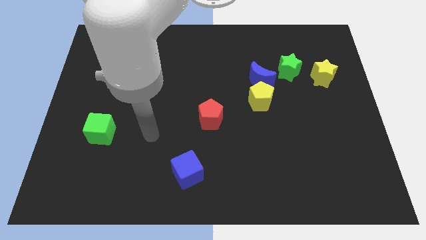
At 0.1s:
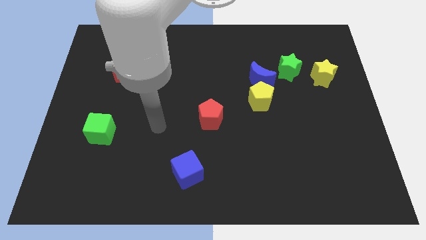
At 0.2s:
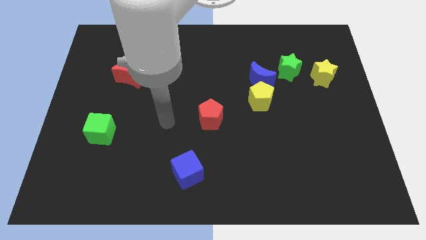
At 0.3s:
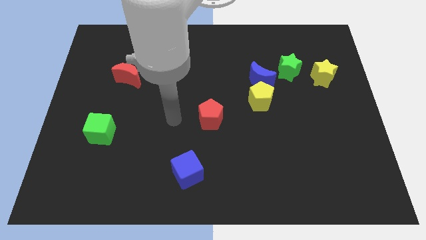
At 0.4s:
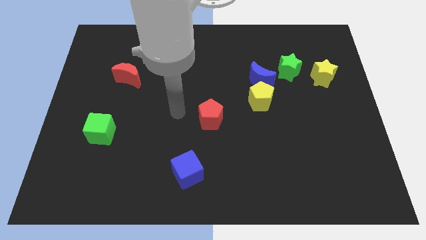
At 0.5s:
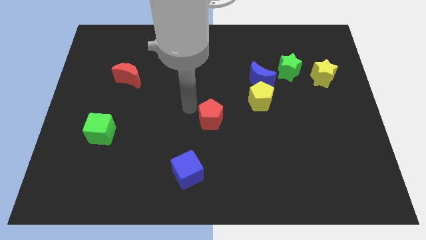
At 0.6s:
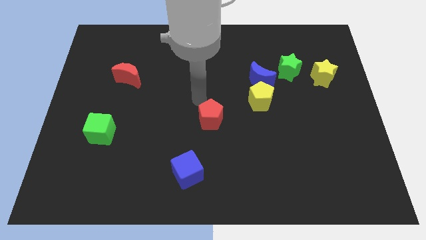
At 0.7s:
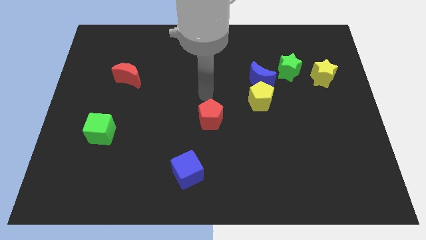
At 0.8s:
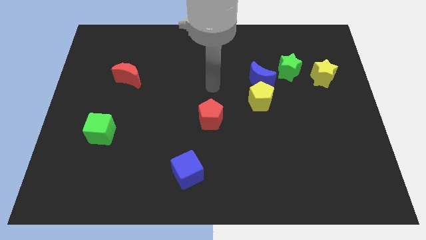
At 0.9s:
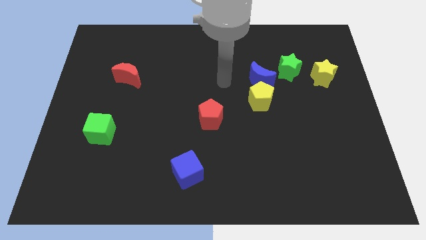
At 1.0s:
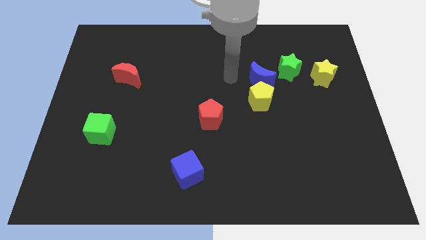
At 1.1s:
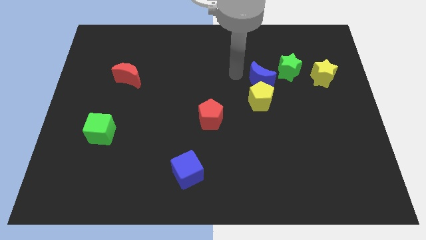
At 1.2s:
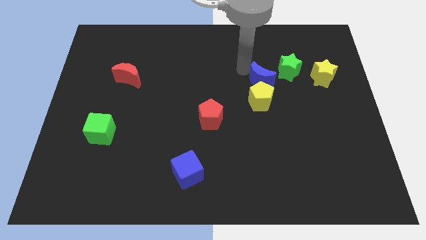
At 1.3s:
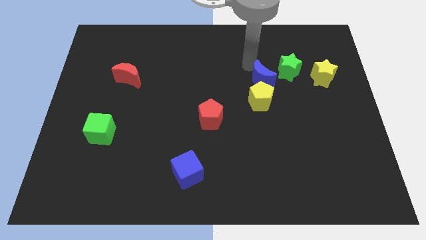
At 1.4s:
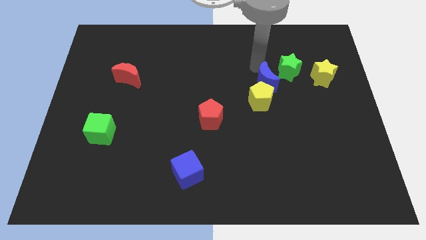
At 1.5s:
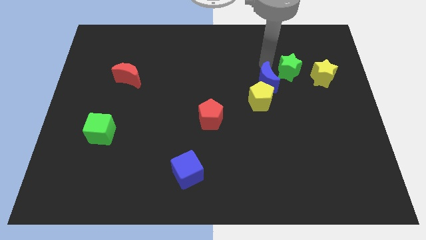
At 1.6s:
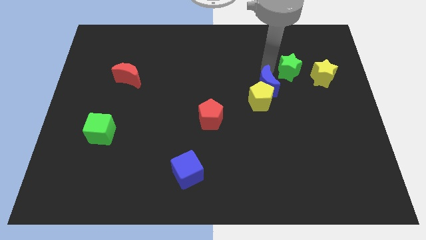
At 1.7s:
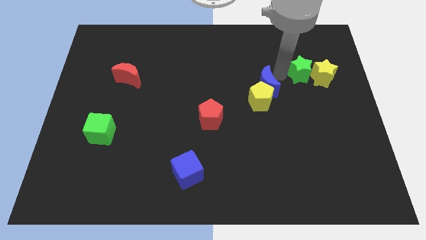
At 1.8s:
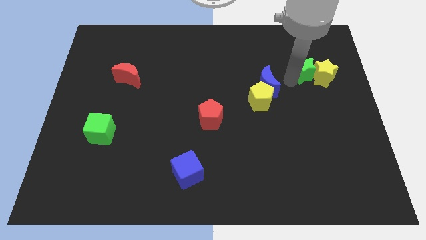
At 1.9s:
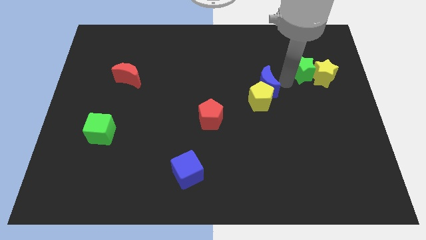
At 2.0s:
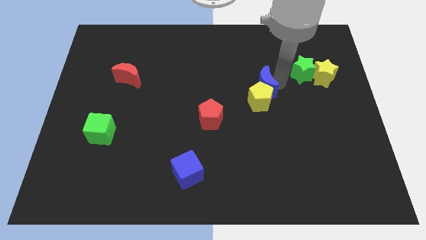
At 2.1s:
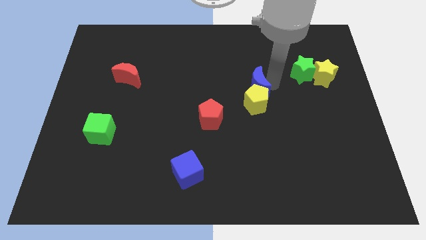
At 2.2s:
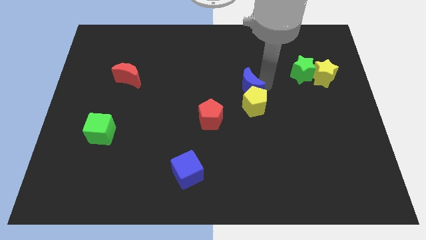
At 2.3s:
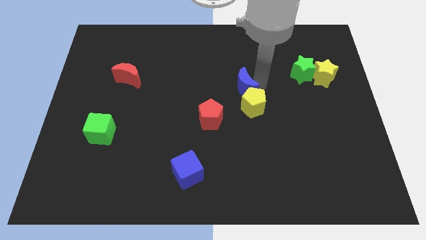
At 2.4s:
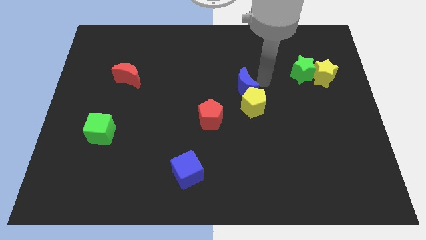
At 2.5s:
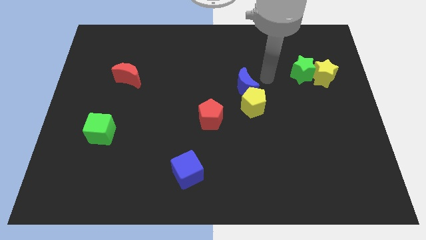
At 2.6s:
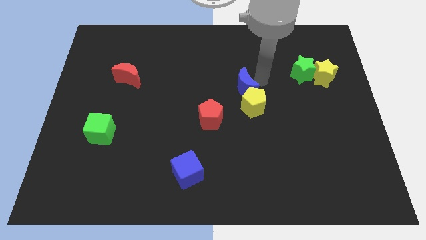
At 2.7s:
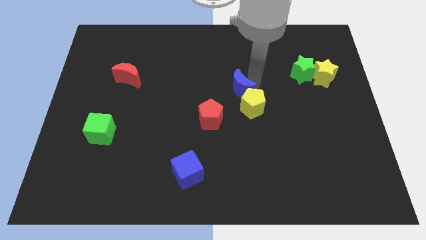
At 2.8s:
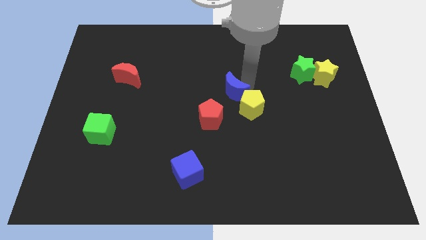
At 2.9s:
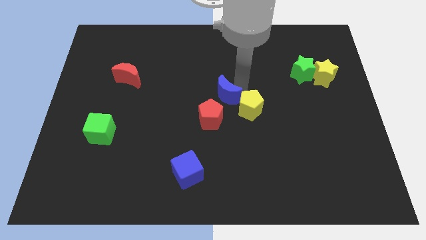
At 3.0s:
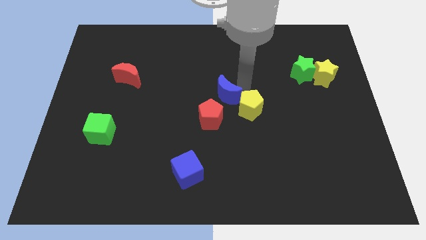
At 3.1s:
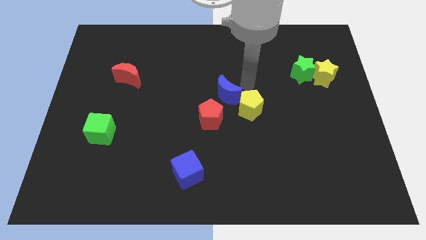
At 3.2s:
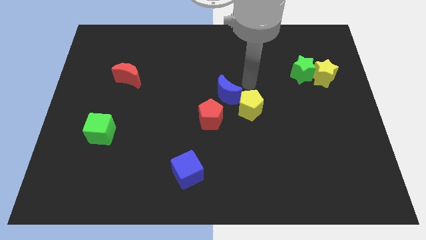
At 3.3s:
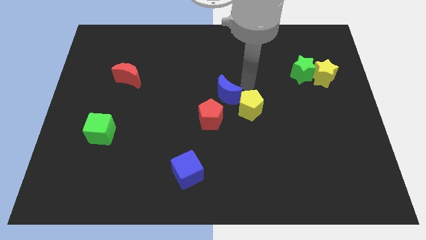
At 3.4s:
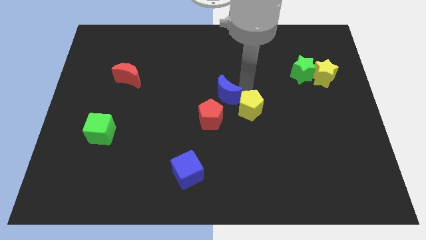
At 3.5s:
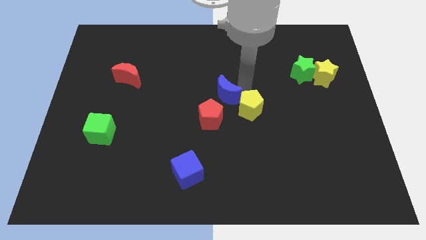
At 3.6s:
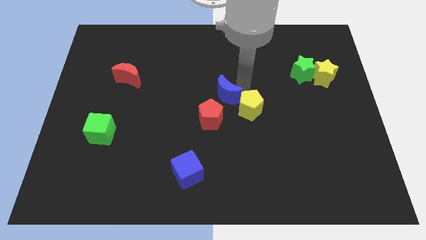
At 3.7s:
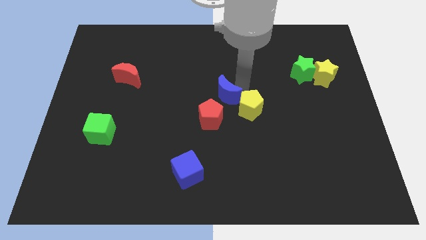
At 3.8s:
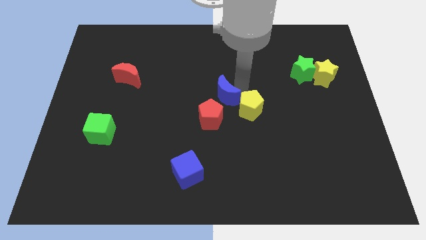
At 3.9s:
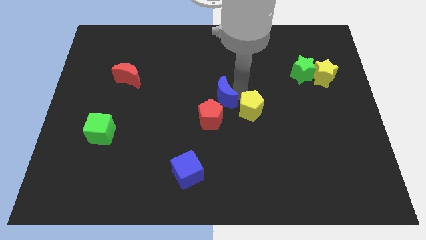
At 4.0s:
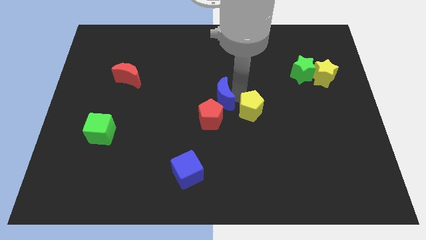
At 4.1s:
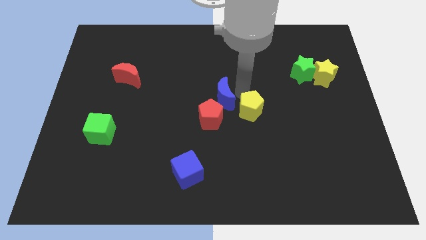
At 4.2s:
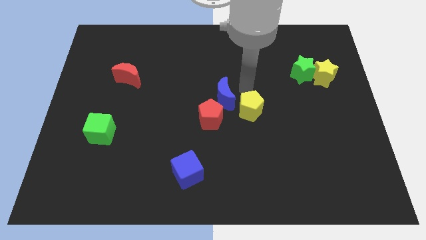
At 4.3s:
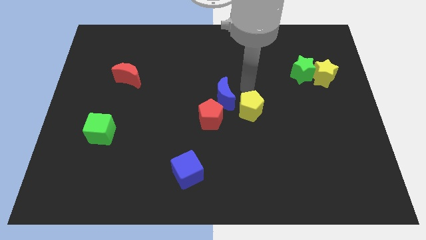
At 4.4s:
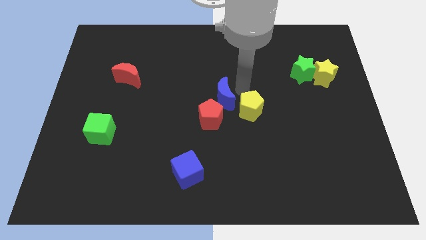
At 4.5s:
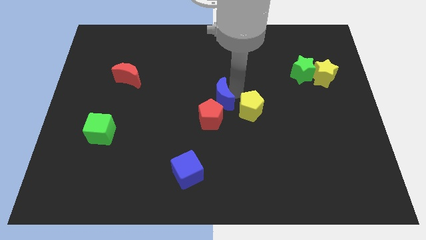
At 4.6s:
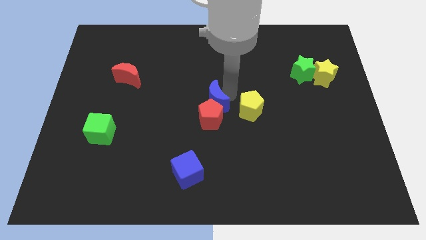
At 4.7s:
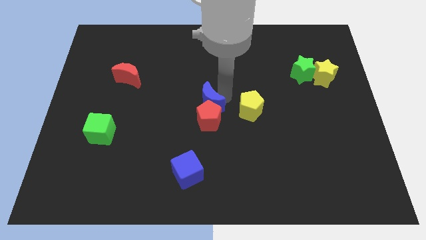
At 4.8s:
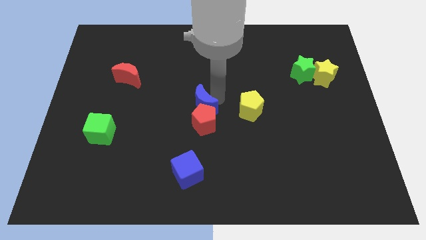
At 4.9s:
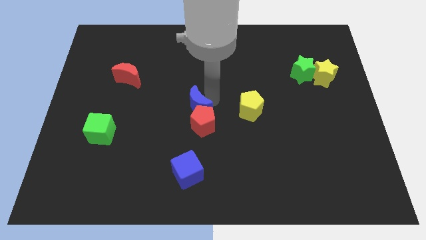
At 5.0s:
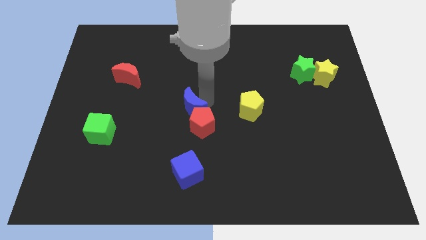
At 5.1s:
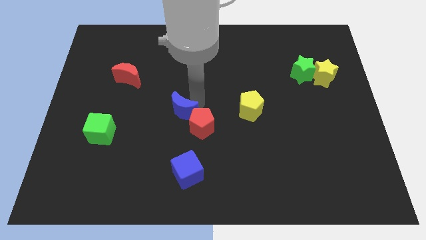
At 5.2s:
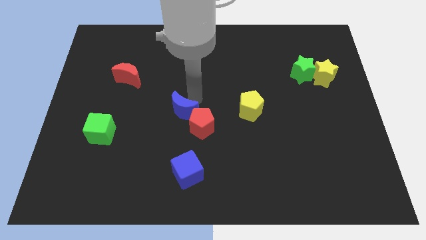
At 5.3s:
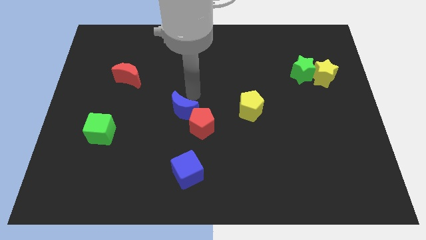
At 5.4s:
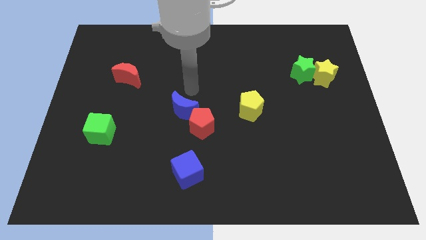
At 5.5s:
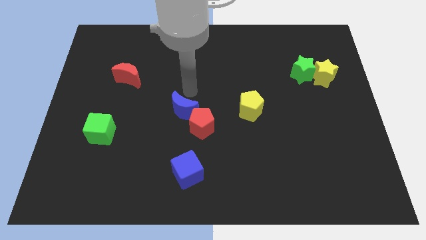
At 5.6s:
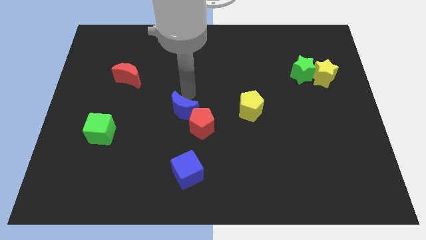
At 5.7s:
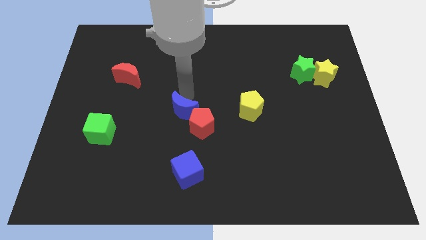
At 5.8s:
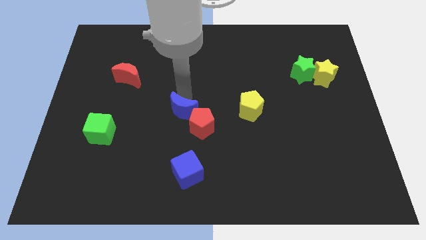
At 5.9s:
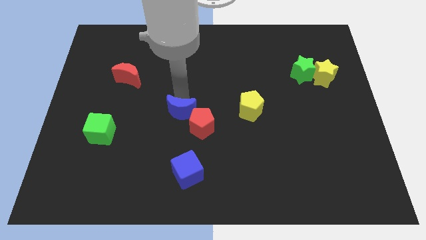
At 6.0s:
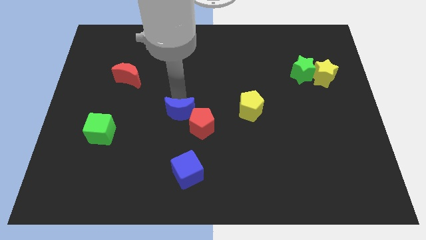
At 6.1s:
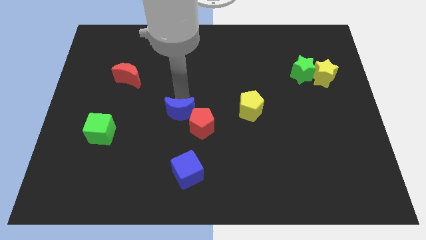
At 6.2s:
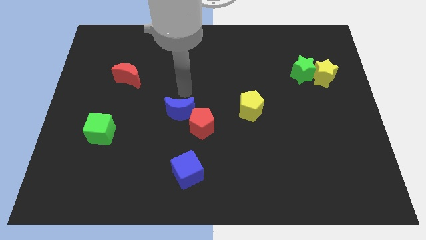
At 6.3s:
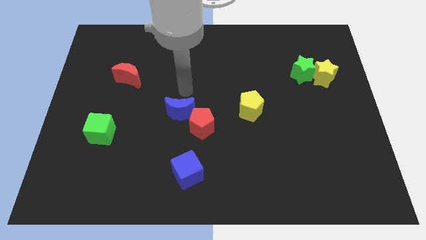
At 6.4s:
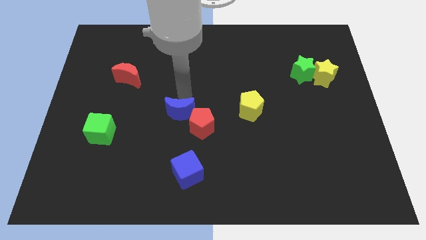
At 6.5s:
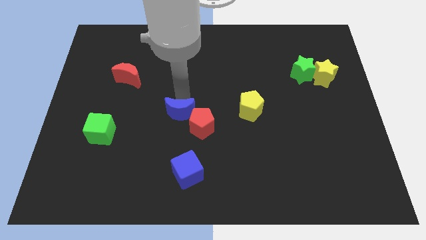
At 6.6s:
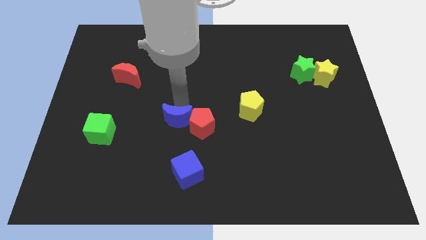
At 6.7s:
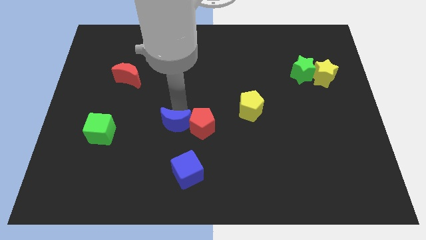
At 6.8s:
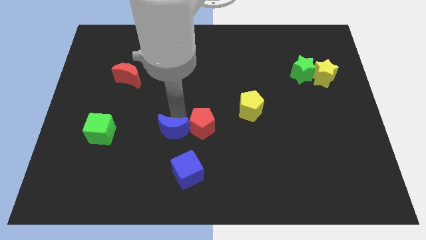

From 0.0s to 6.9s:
slide the blue moon to the top left side of the blue cube
